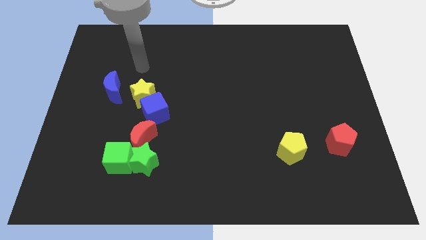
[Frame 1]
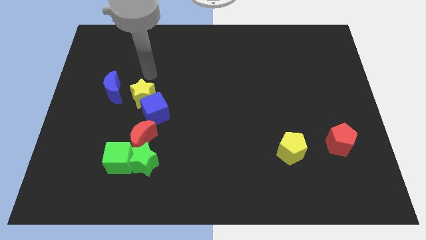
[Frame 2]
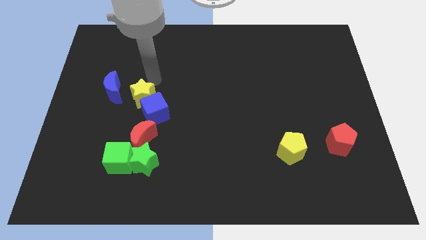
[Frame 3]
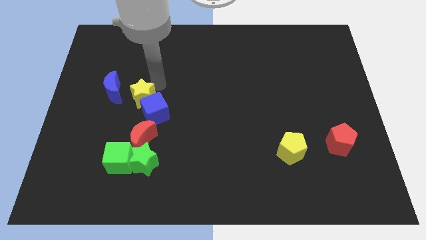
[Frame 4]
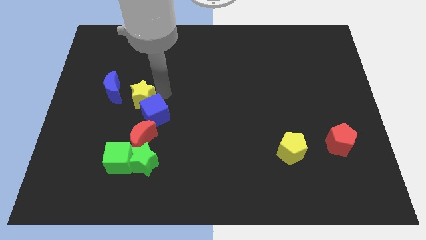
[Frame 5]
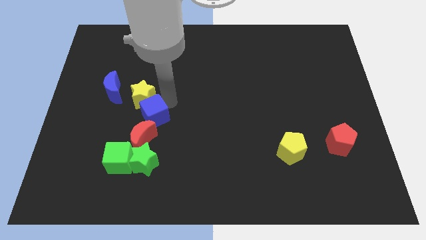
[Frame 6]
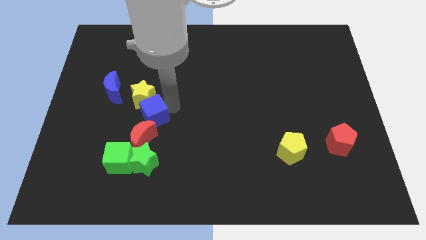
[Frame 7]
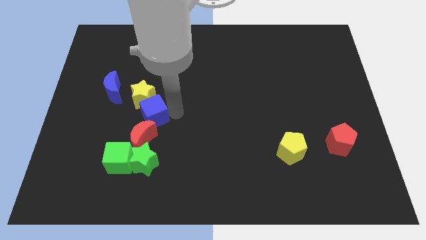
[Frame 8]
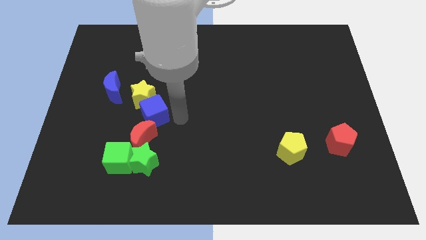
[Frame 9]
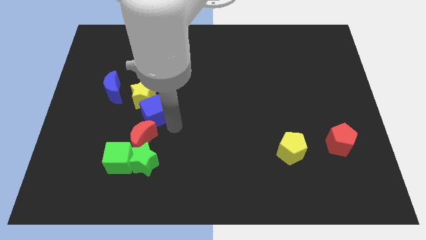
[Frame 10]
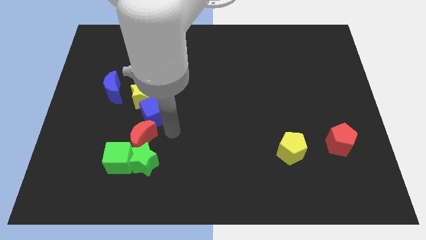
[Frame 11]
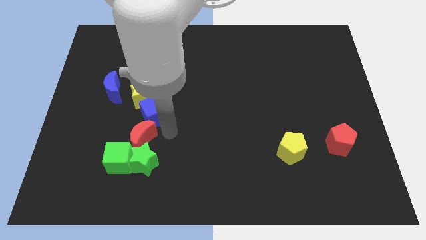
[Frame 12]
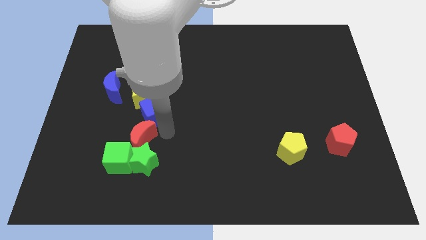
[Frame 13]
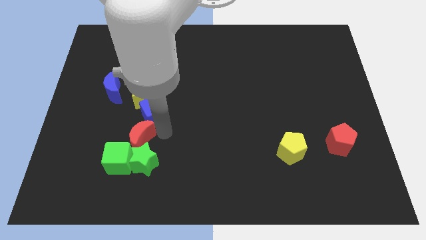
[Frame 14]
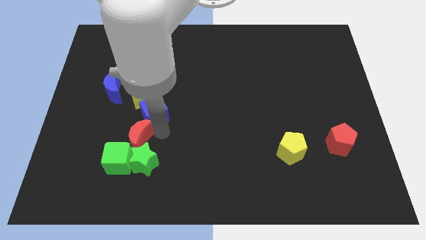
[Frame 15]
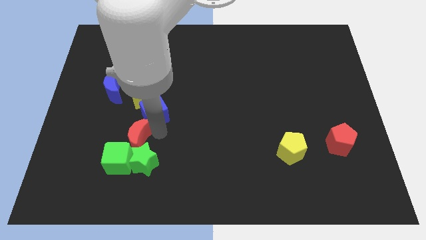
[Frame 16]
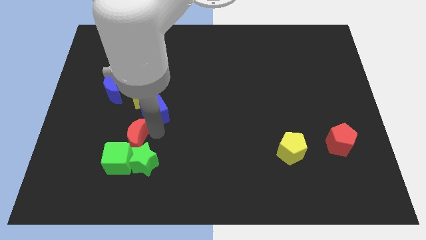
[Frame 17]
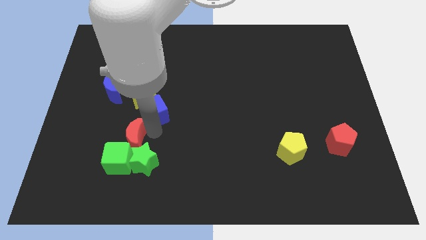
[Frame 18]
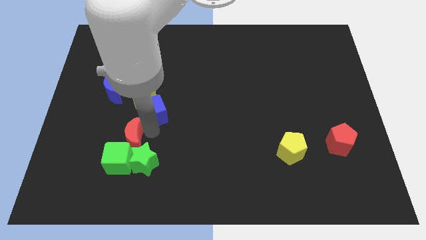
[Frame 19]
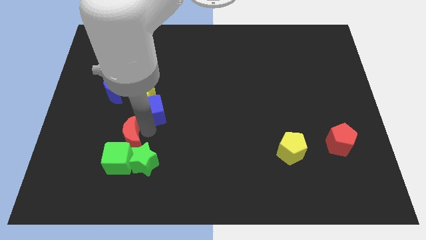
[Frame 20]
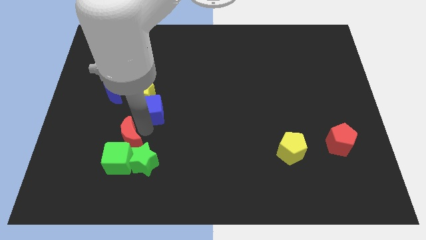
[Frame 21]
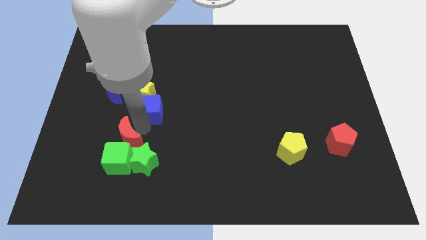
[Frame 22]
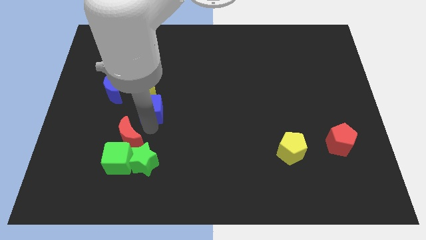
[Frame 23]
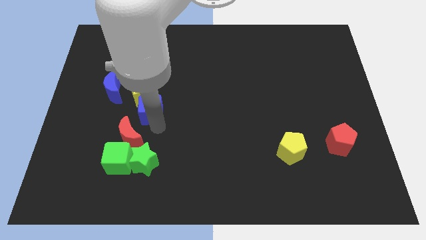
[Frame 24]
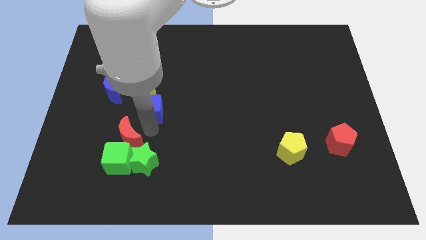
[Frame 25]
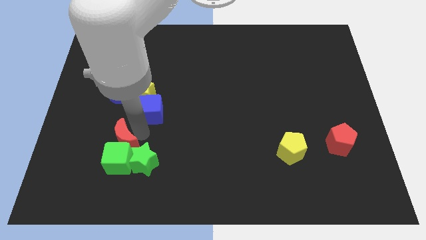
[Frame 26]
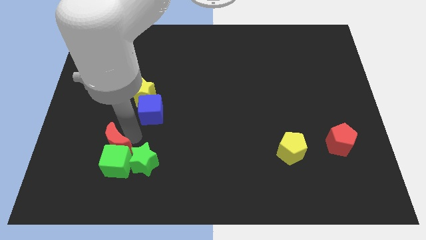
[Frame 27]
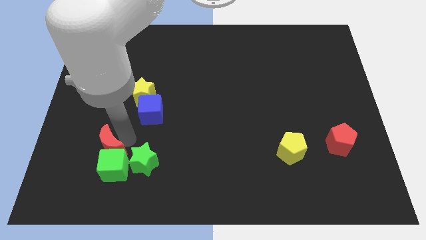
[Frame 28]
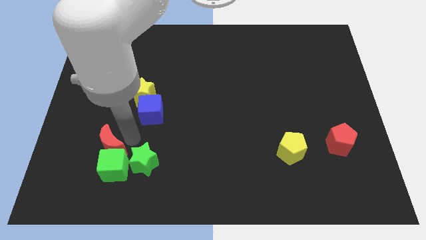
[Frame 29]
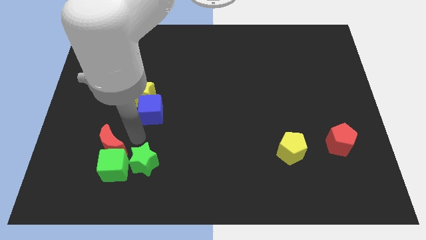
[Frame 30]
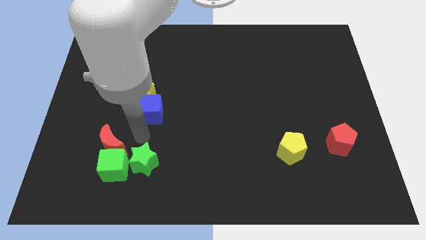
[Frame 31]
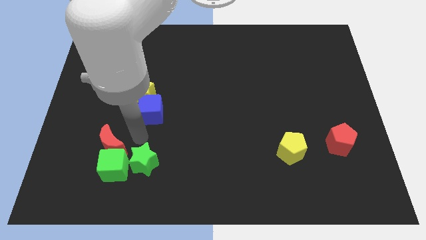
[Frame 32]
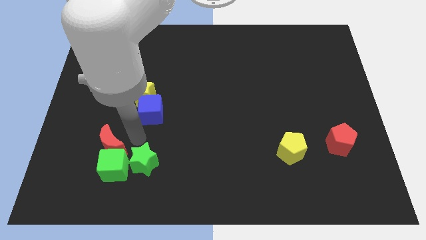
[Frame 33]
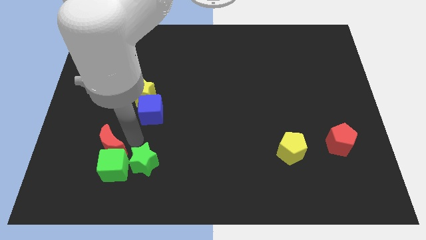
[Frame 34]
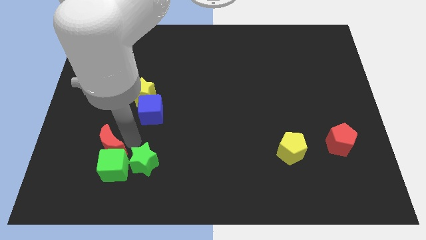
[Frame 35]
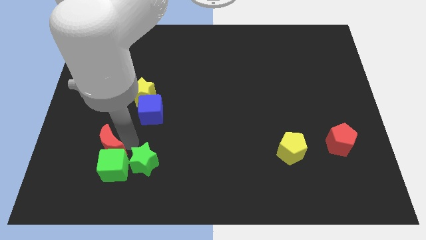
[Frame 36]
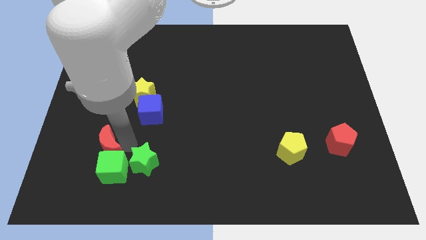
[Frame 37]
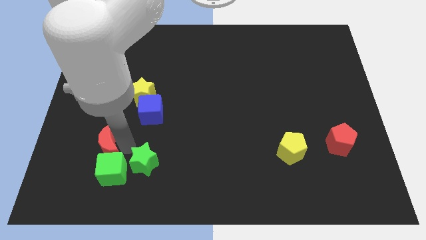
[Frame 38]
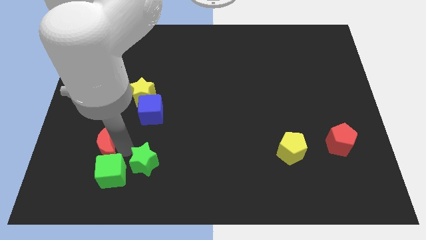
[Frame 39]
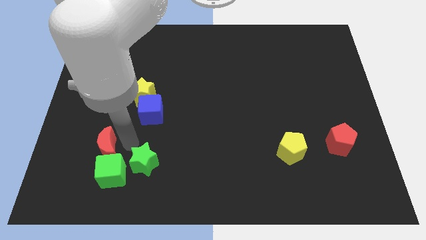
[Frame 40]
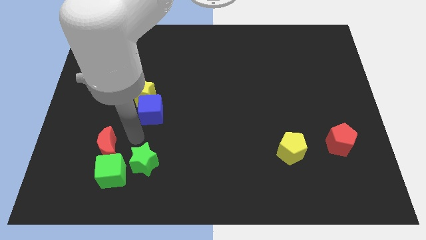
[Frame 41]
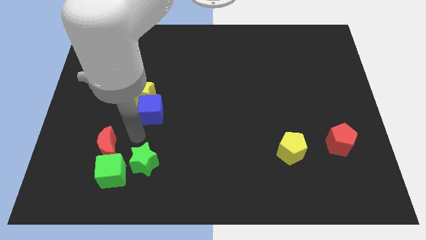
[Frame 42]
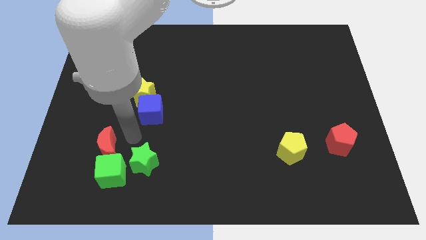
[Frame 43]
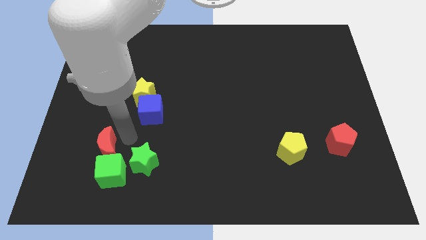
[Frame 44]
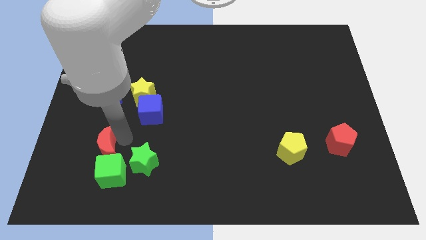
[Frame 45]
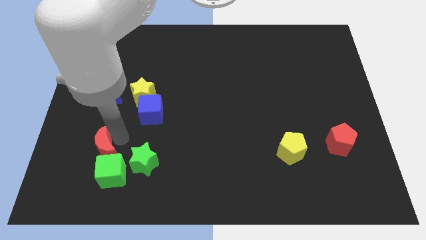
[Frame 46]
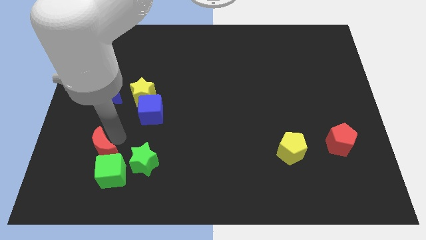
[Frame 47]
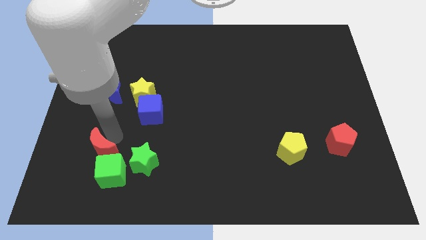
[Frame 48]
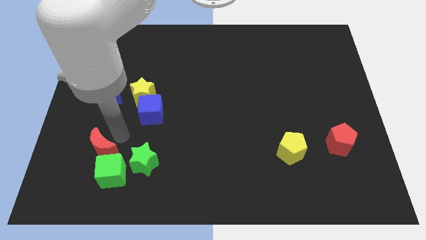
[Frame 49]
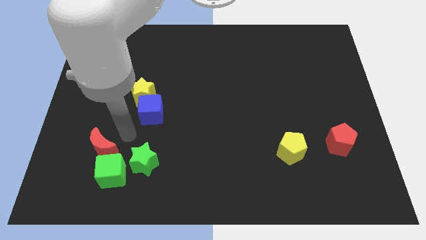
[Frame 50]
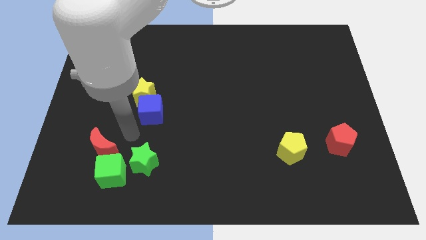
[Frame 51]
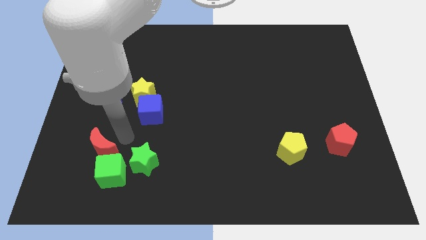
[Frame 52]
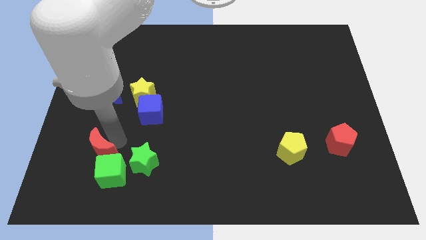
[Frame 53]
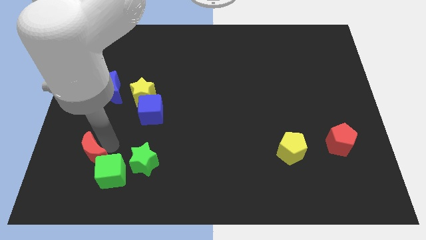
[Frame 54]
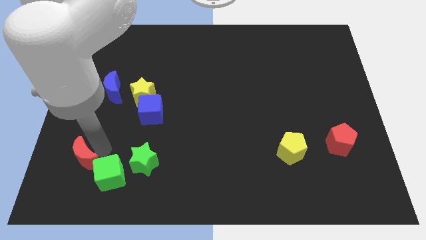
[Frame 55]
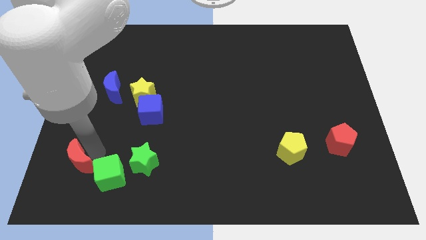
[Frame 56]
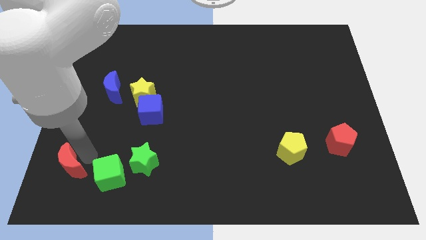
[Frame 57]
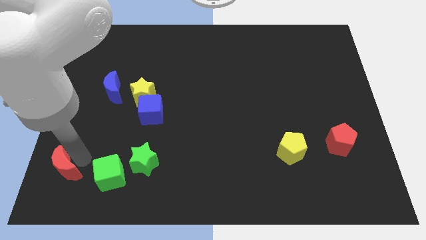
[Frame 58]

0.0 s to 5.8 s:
move the red moon to the bottom left

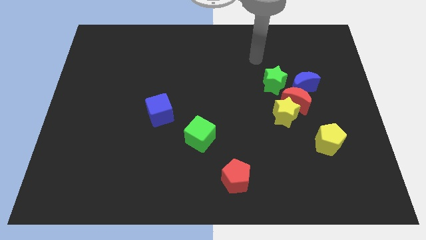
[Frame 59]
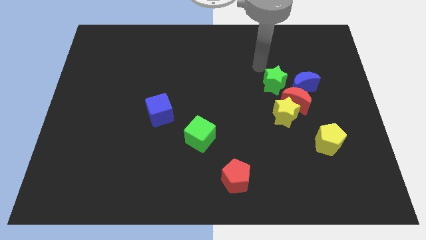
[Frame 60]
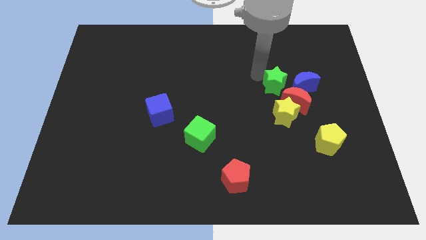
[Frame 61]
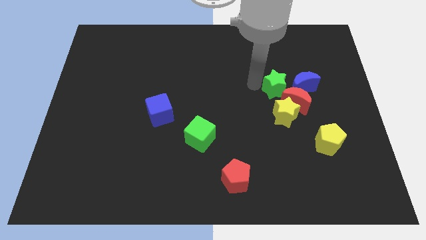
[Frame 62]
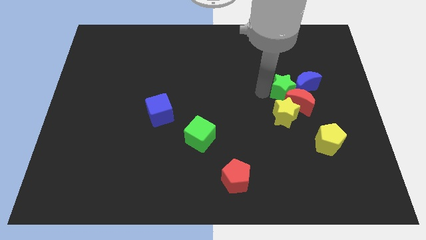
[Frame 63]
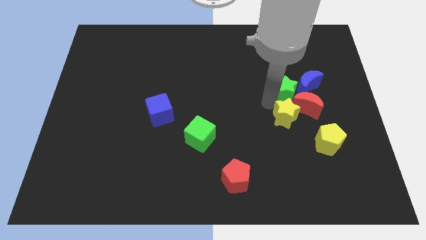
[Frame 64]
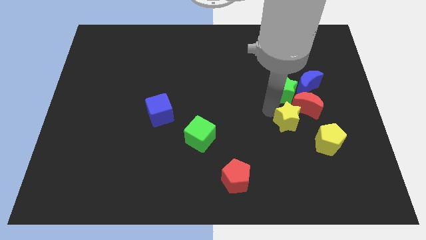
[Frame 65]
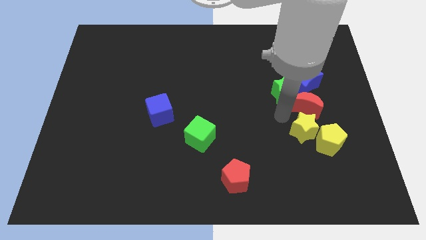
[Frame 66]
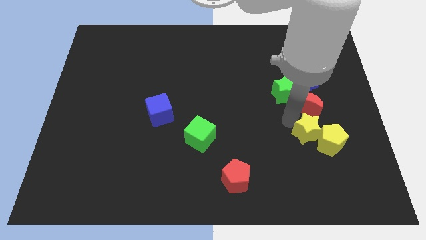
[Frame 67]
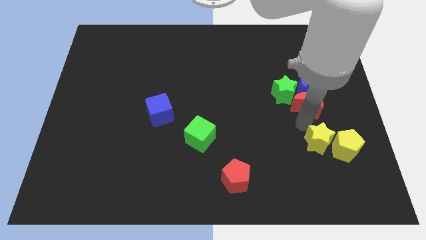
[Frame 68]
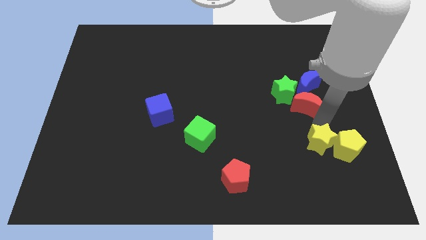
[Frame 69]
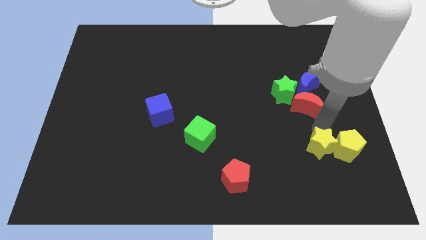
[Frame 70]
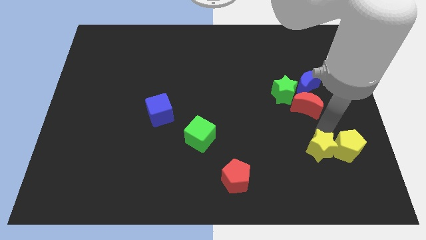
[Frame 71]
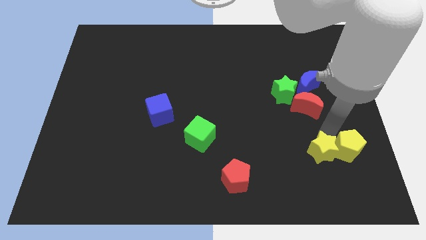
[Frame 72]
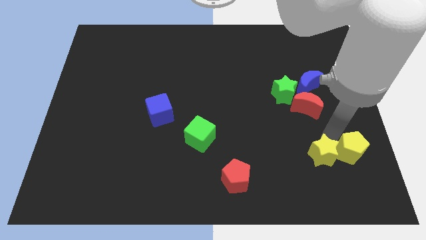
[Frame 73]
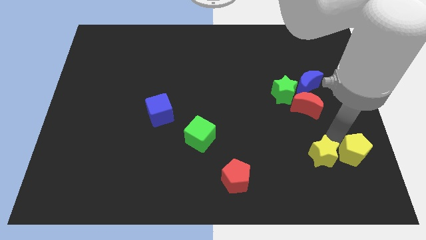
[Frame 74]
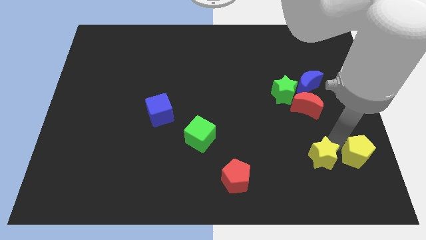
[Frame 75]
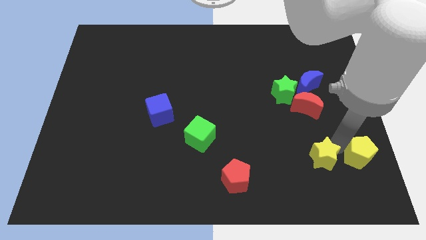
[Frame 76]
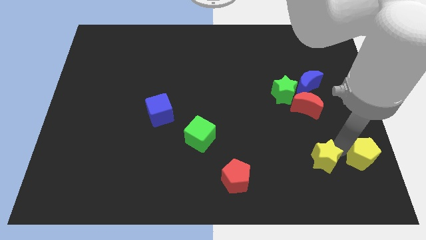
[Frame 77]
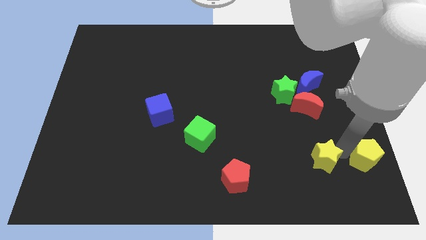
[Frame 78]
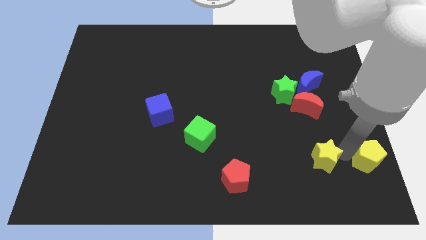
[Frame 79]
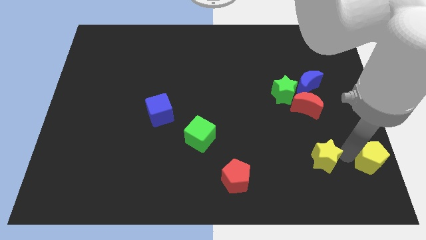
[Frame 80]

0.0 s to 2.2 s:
slide the yellow pentagon to the lower right corner
